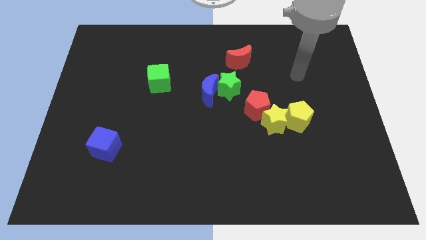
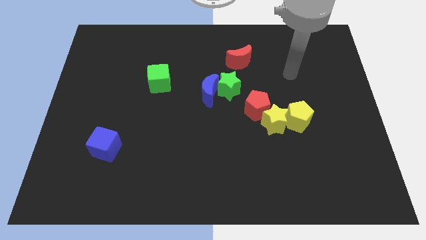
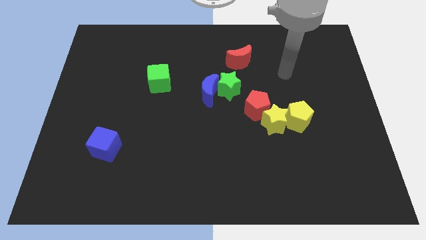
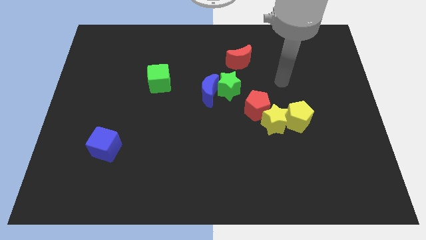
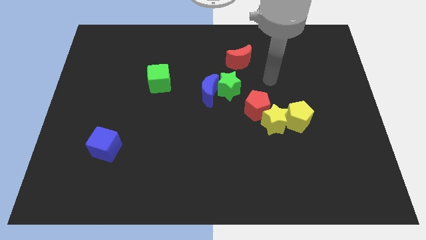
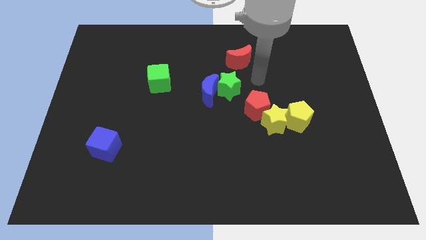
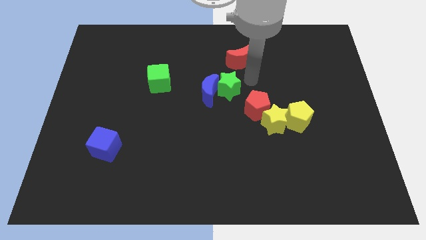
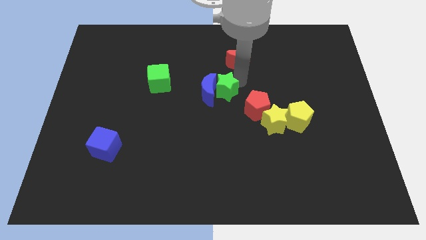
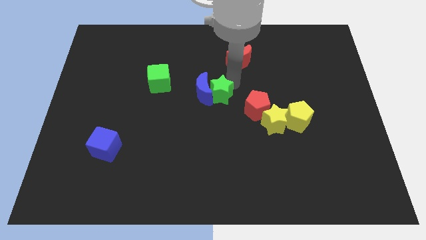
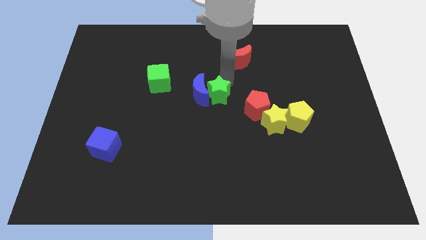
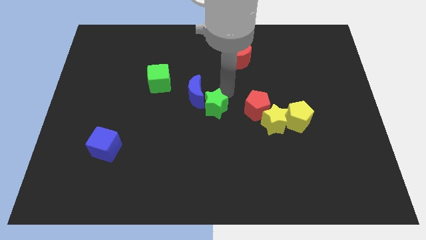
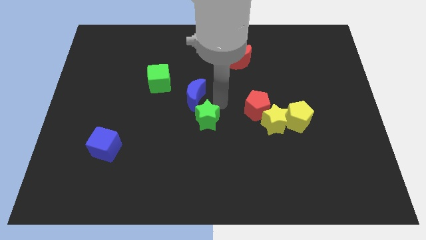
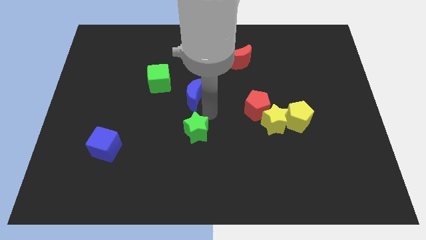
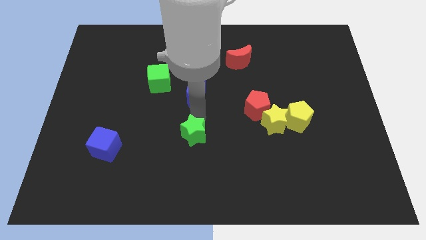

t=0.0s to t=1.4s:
move the blue moon away from the green star

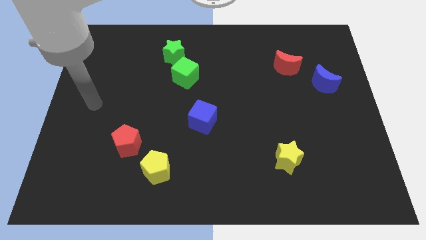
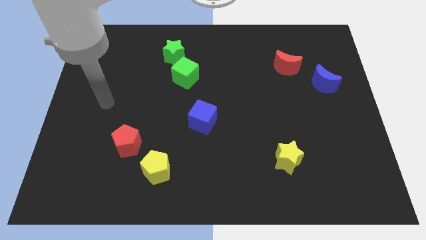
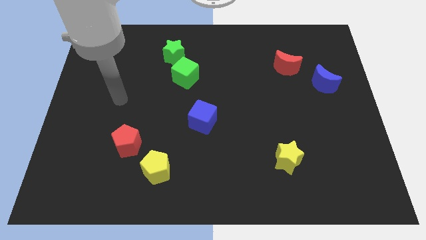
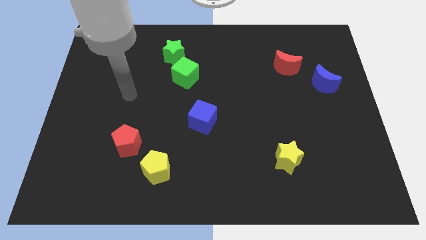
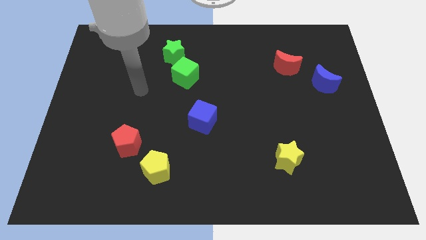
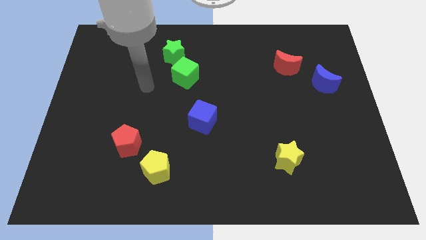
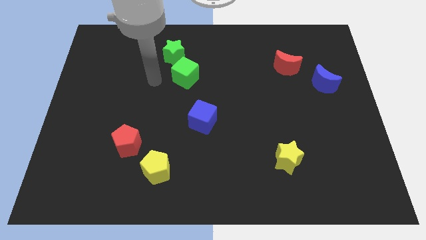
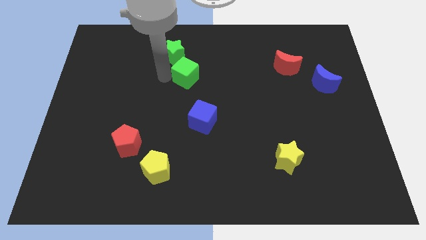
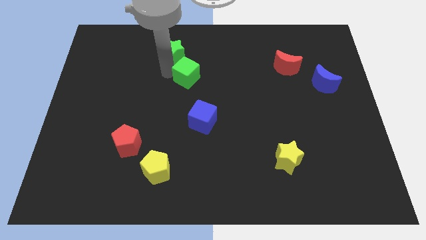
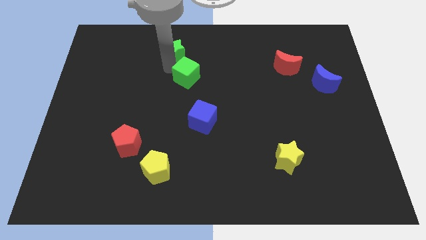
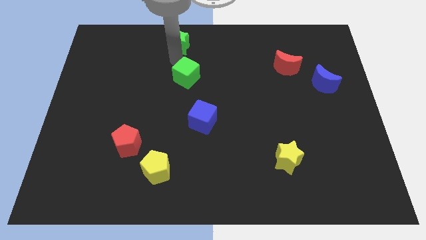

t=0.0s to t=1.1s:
separate the green cube from the green star

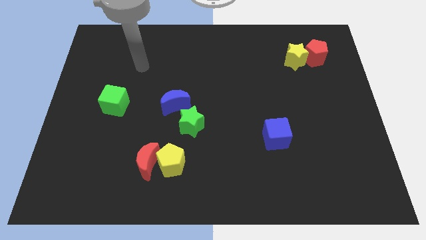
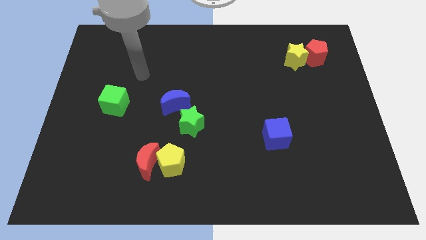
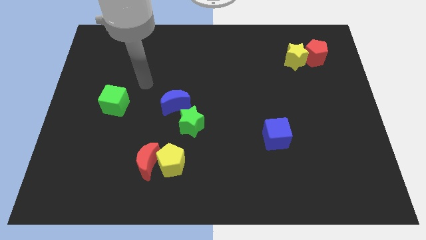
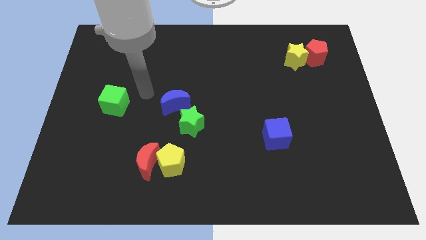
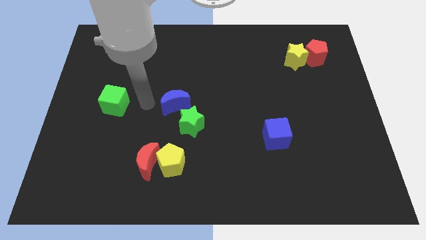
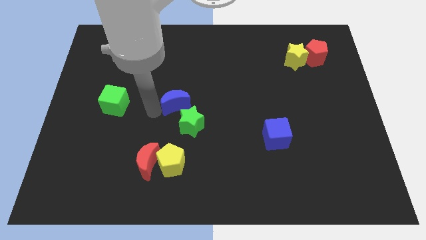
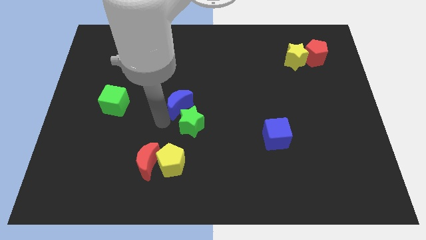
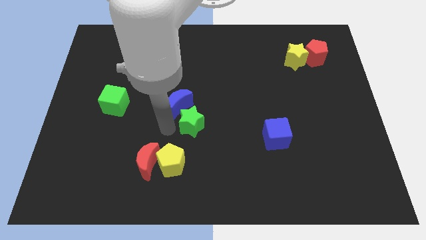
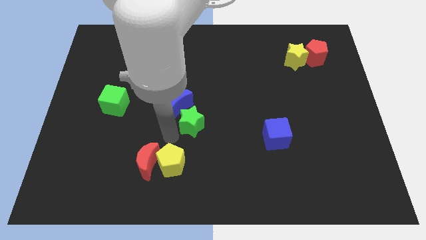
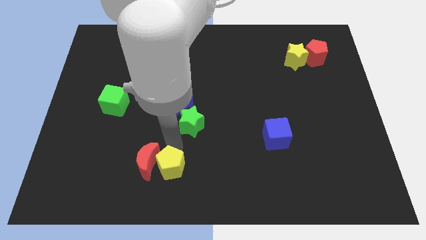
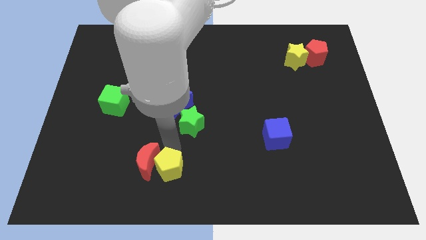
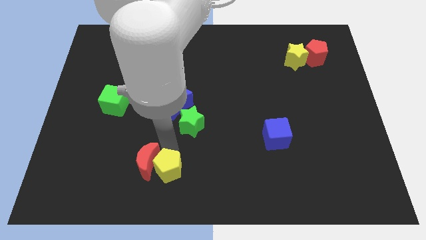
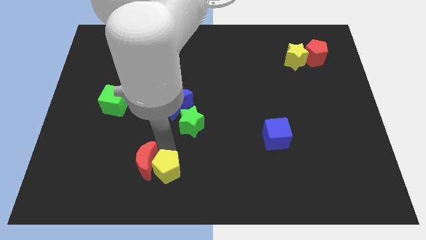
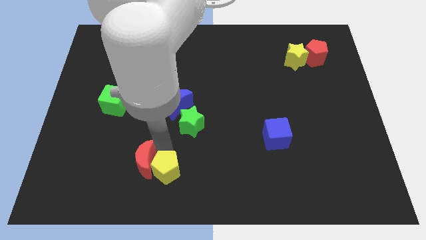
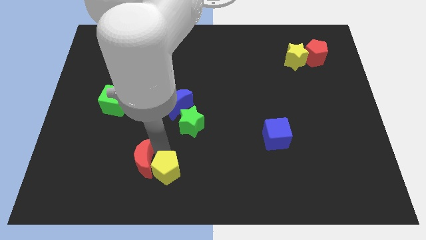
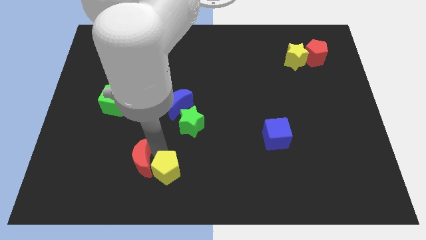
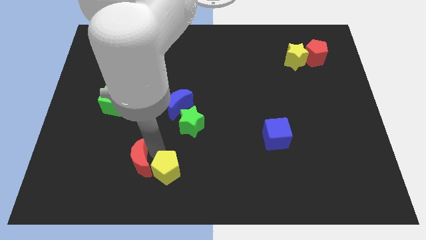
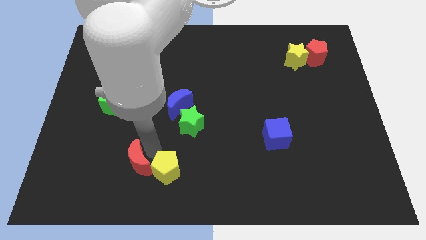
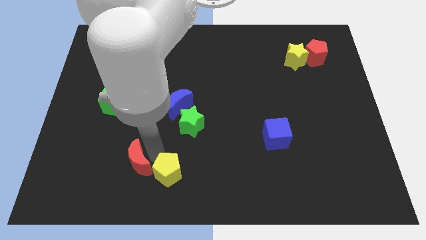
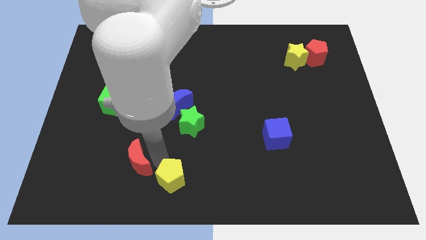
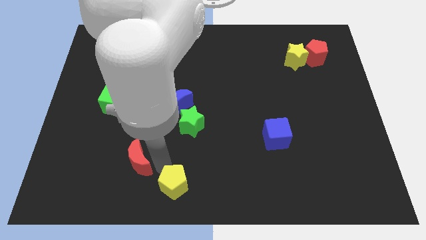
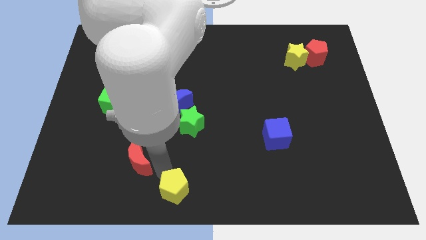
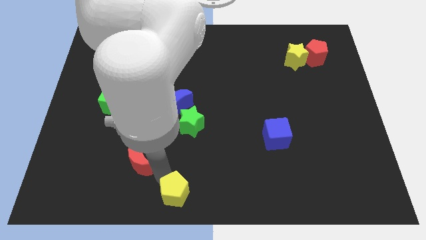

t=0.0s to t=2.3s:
move the red moon away from the yellow pentagon

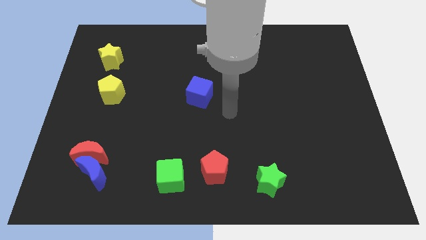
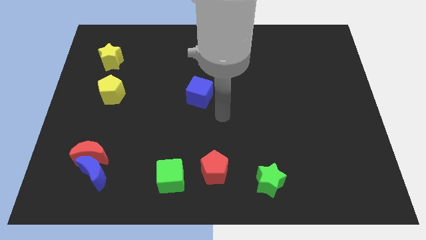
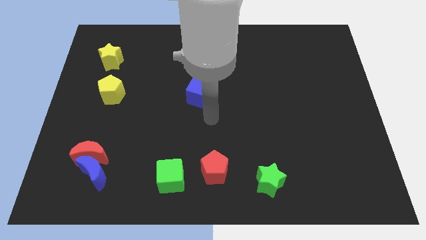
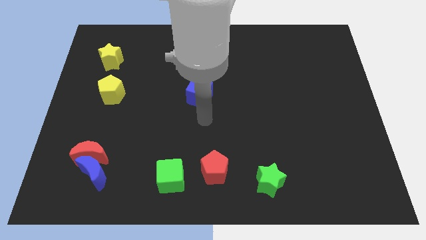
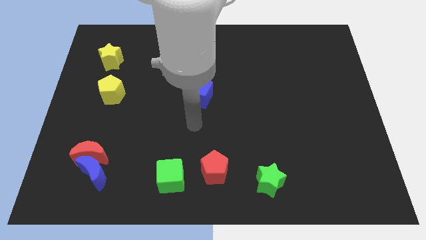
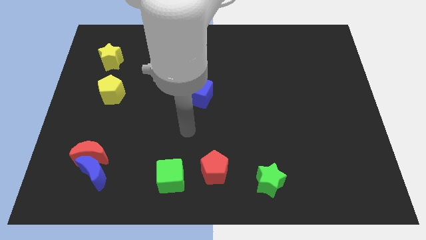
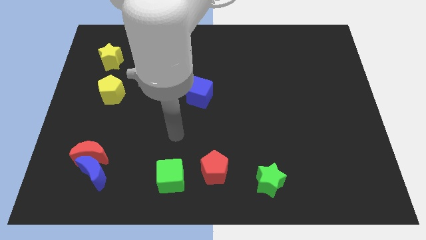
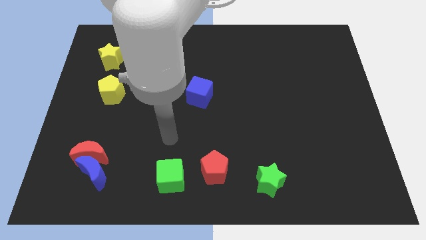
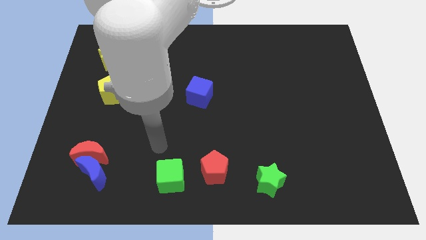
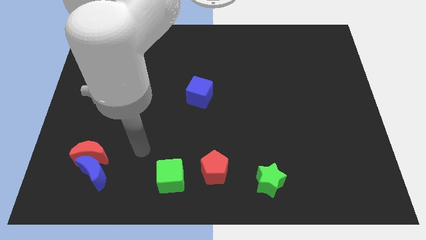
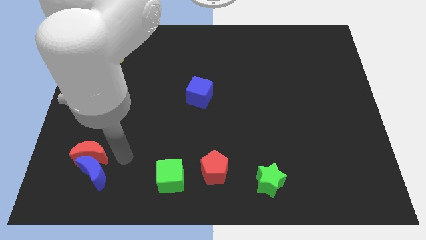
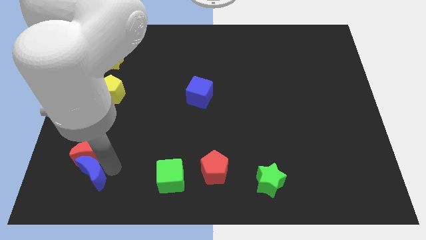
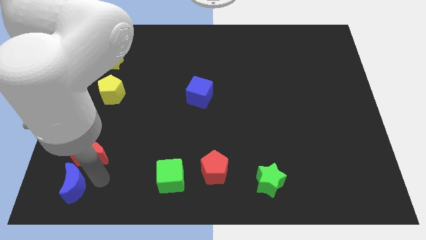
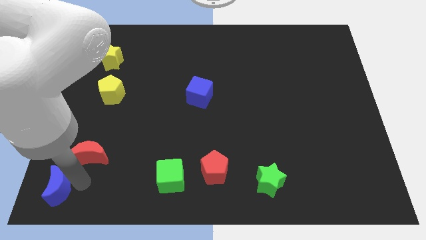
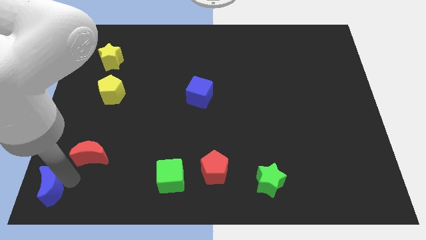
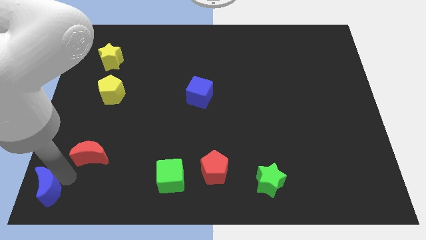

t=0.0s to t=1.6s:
separate the red moon from the blue moon

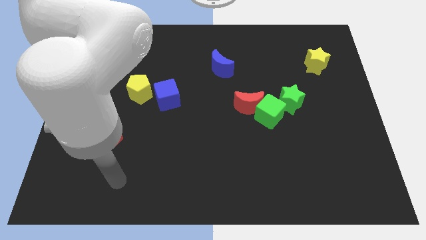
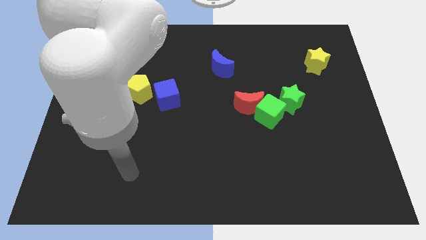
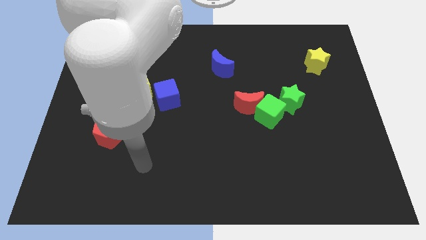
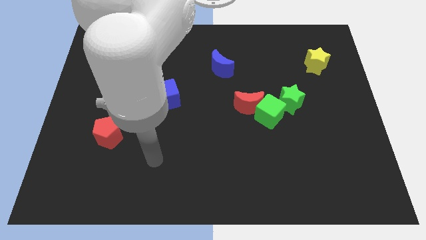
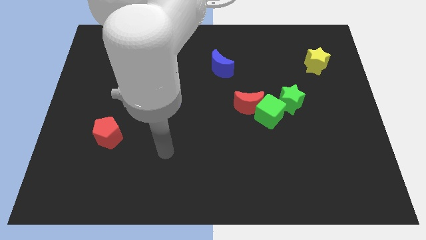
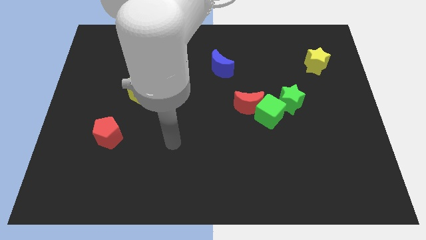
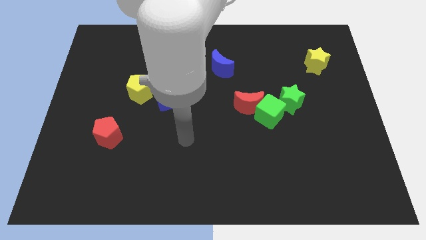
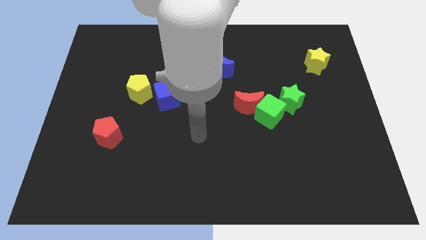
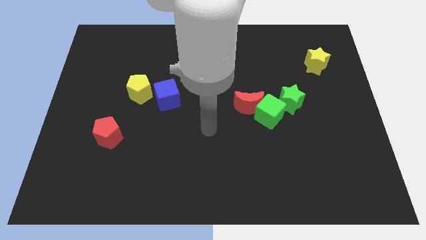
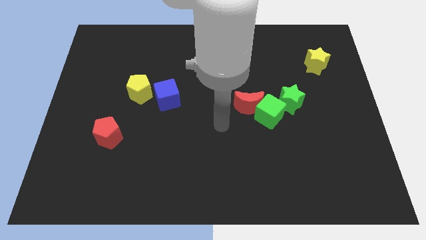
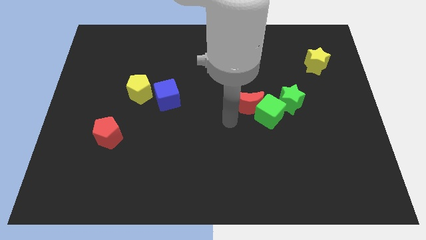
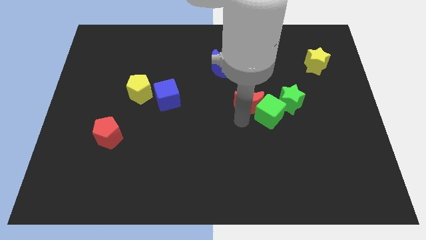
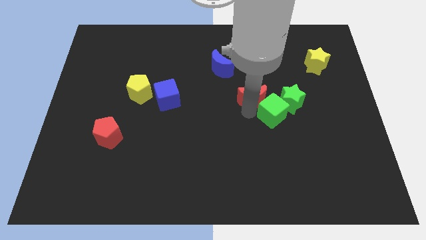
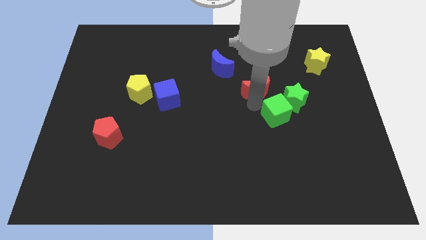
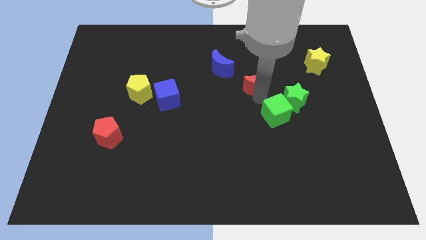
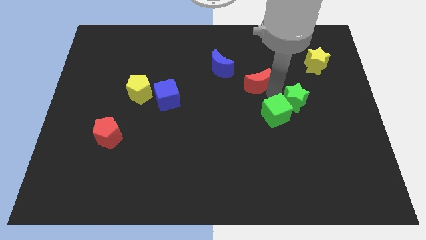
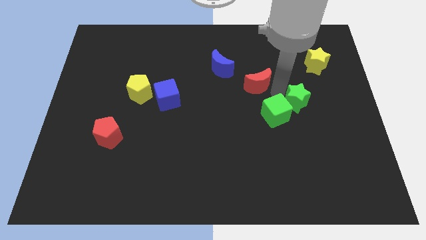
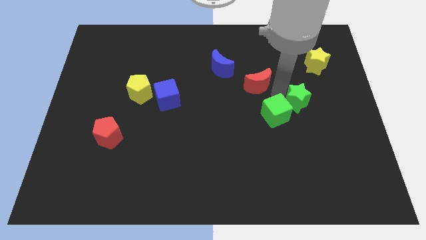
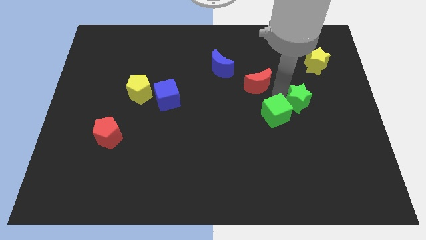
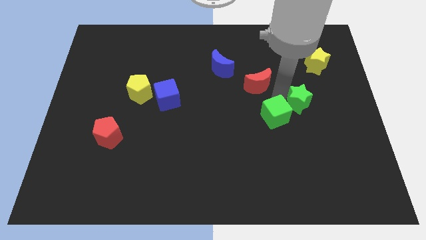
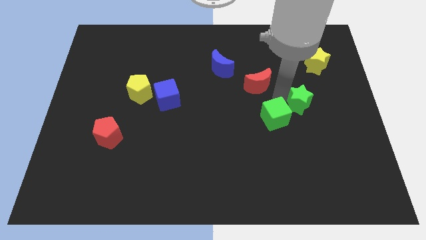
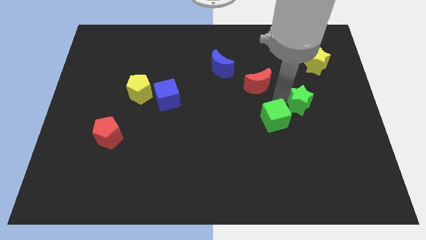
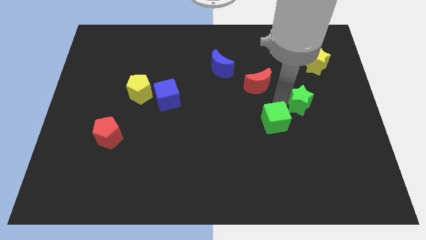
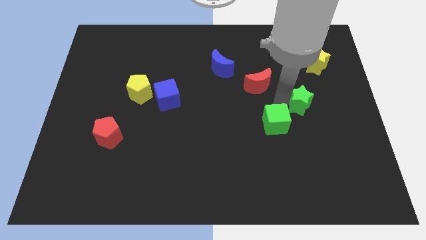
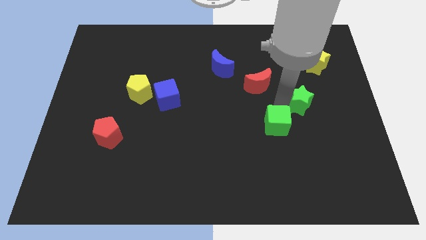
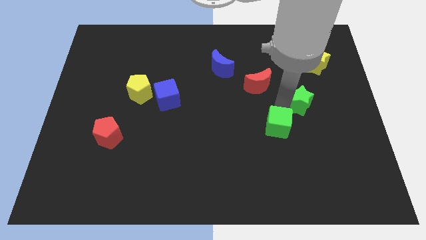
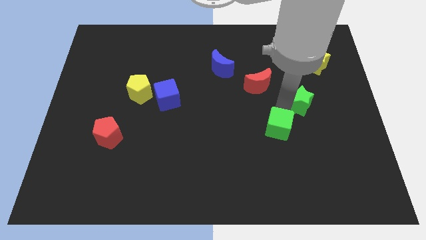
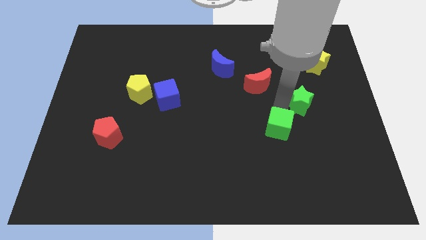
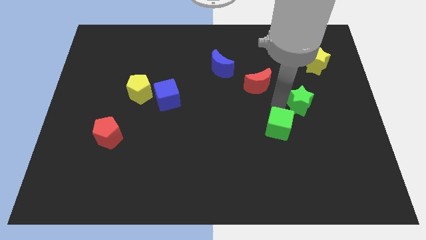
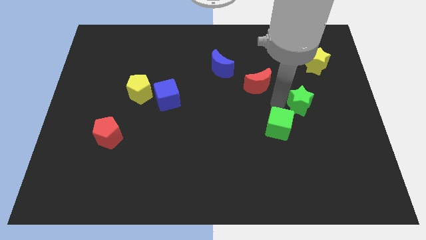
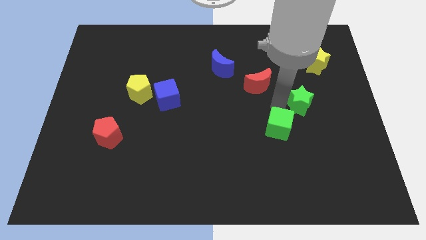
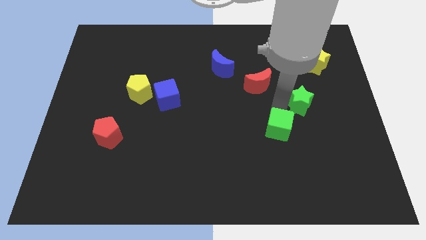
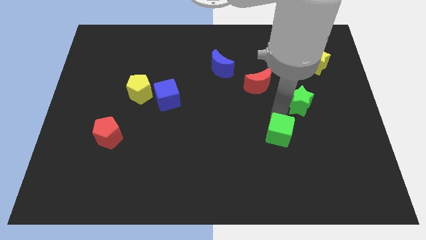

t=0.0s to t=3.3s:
move the green cube away from the red moon and green star
